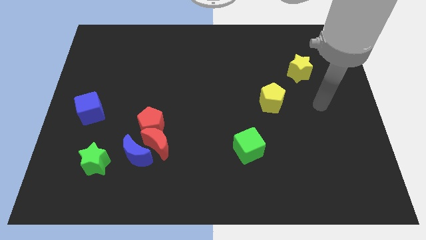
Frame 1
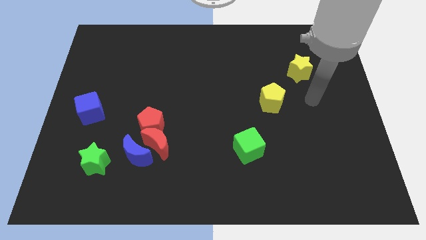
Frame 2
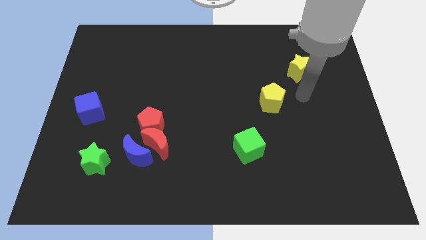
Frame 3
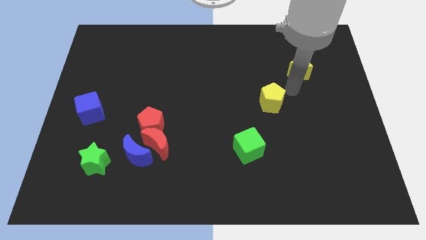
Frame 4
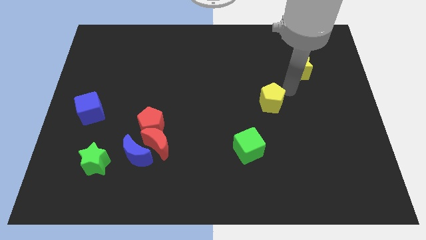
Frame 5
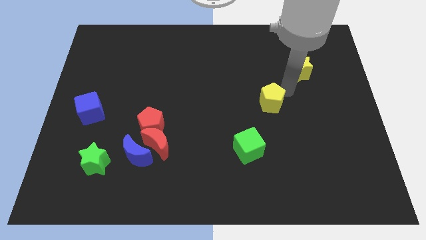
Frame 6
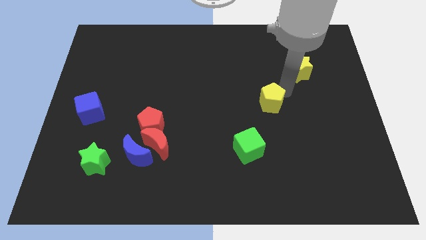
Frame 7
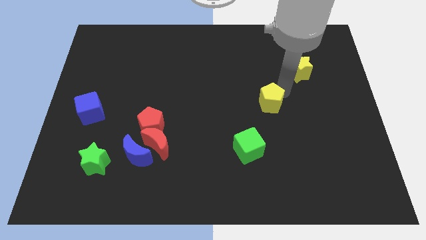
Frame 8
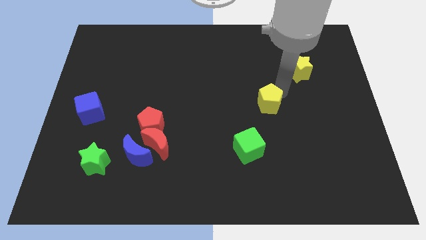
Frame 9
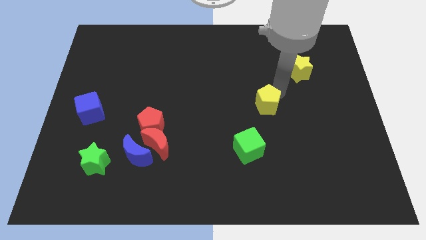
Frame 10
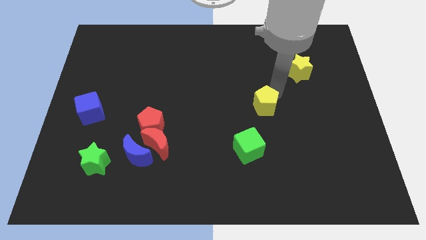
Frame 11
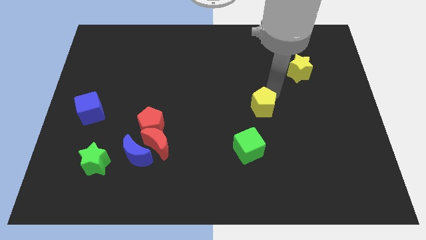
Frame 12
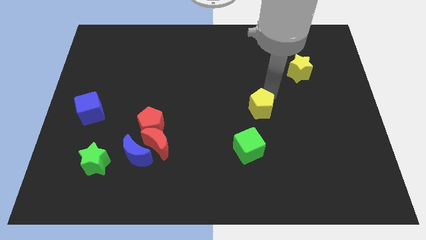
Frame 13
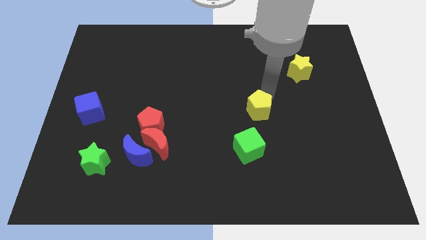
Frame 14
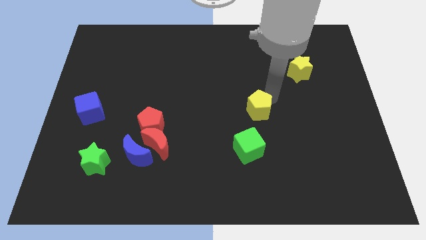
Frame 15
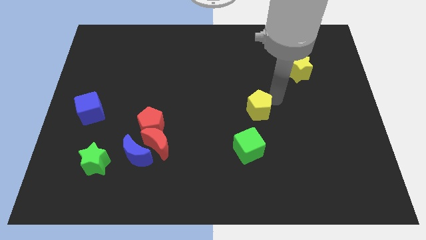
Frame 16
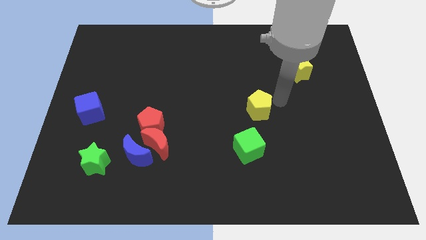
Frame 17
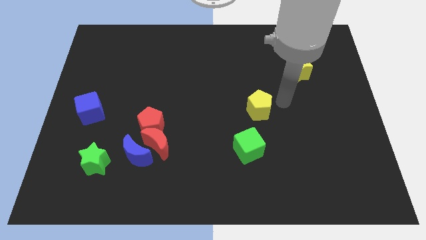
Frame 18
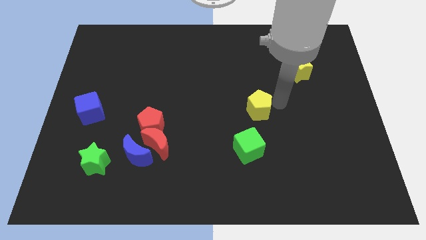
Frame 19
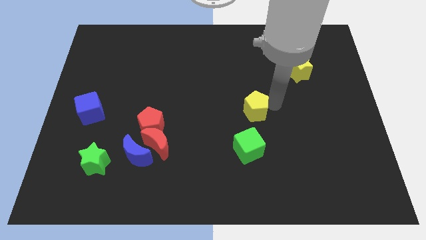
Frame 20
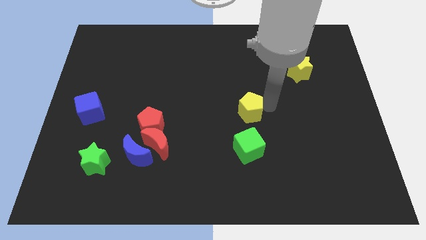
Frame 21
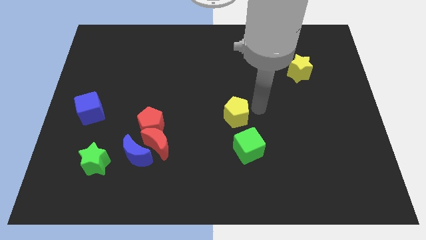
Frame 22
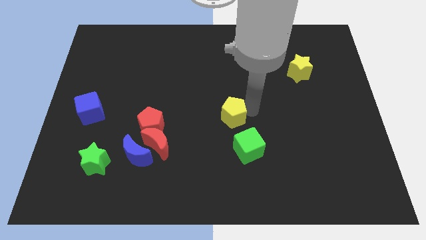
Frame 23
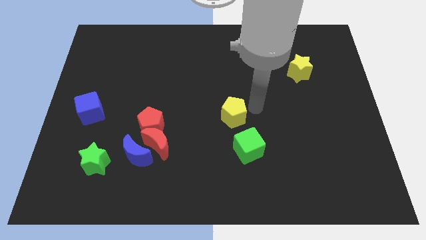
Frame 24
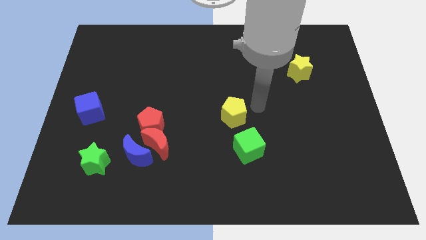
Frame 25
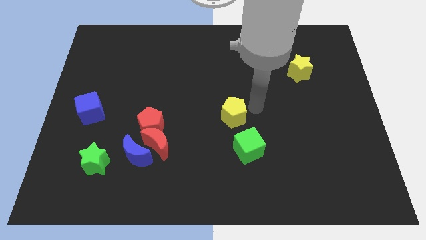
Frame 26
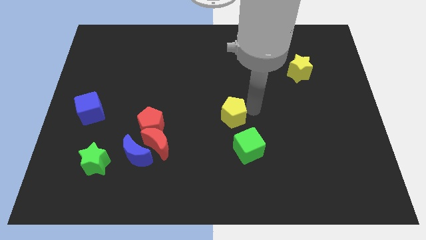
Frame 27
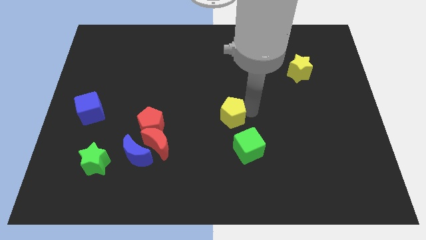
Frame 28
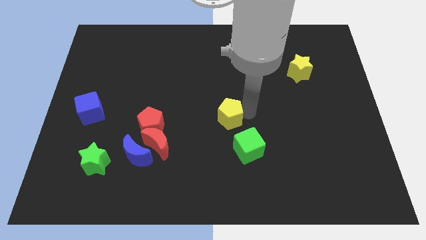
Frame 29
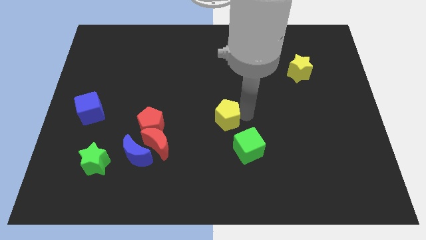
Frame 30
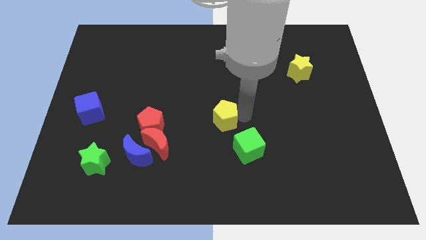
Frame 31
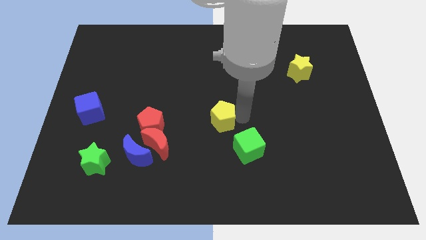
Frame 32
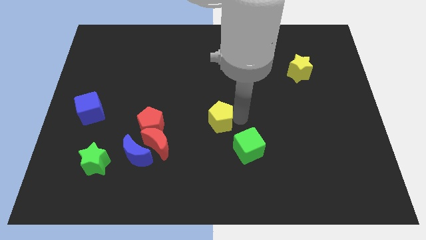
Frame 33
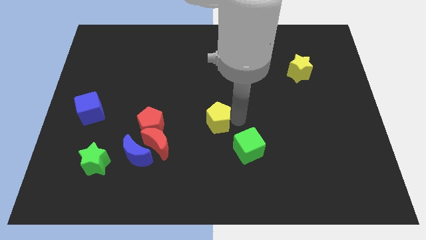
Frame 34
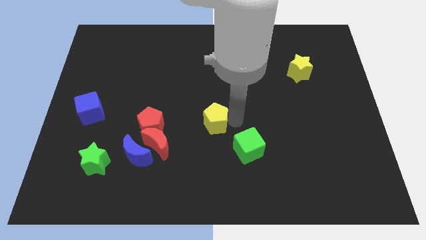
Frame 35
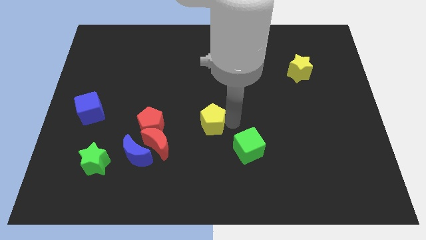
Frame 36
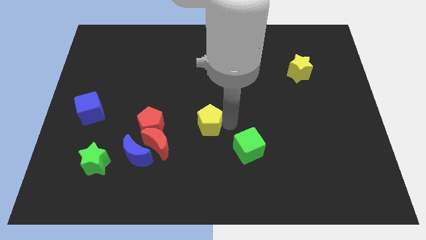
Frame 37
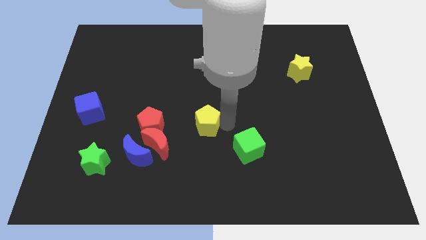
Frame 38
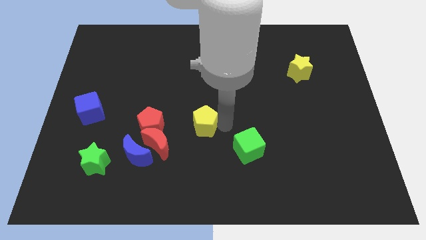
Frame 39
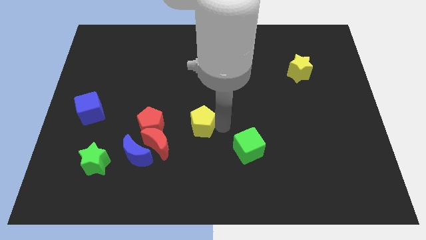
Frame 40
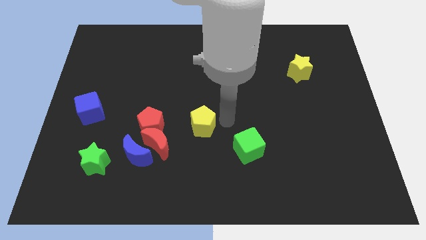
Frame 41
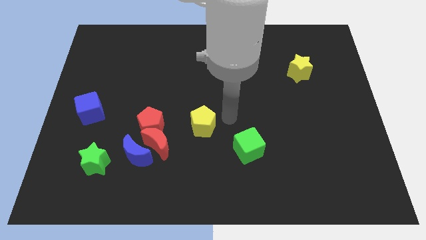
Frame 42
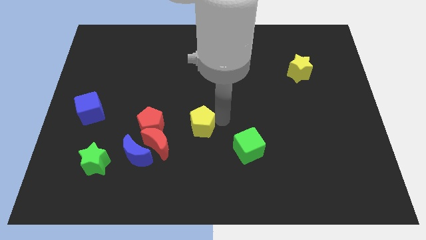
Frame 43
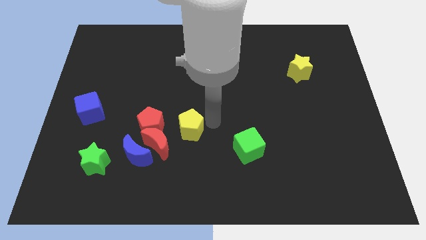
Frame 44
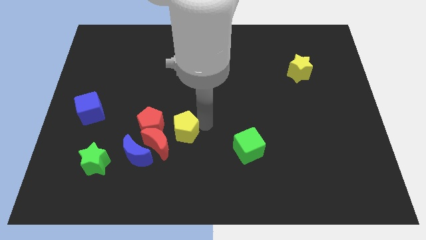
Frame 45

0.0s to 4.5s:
slide the yellow pentagon to the top right of the blue moon

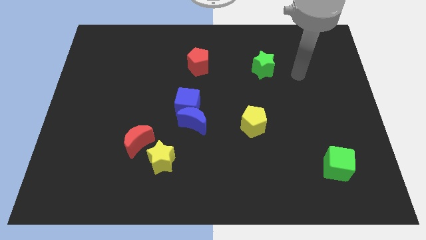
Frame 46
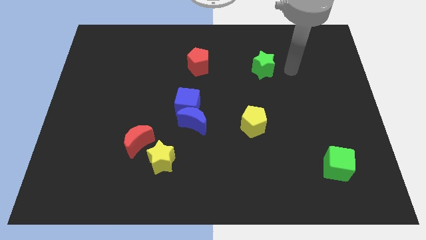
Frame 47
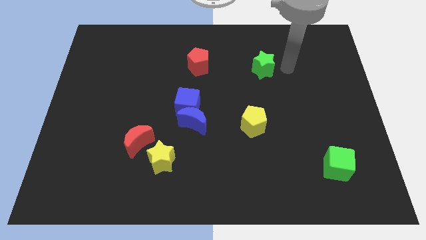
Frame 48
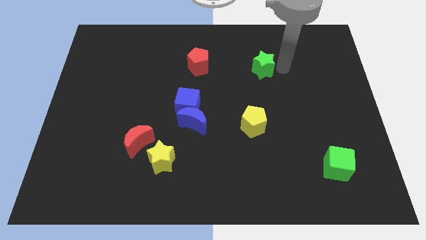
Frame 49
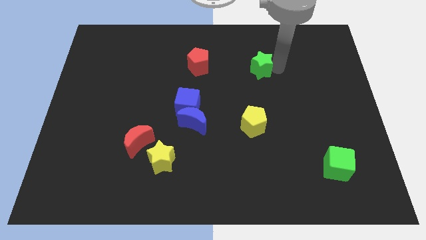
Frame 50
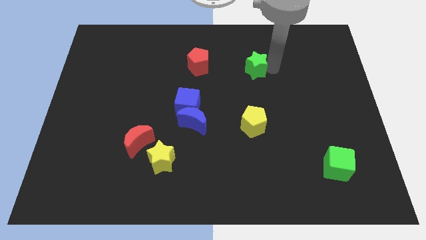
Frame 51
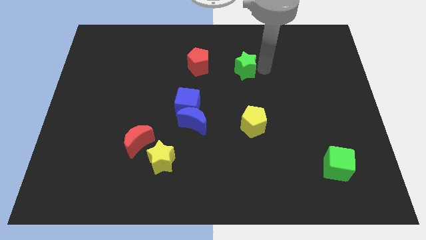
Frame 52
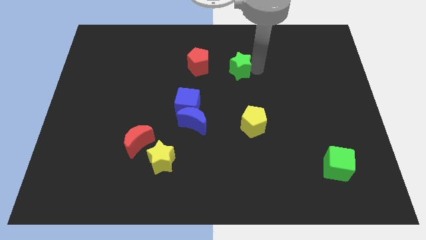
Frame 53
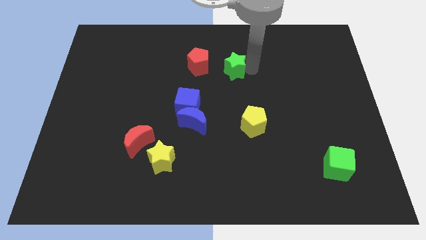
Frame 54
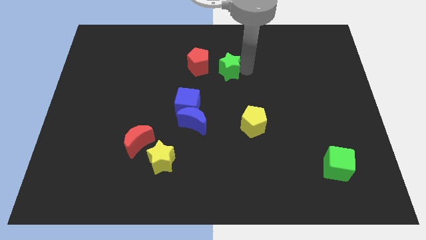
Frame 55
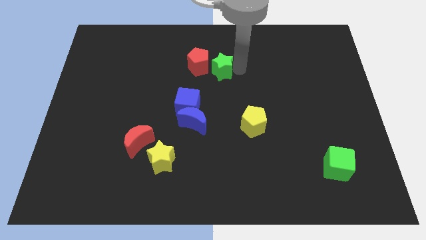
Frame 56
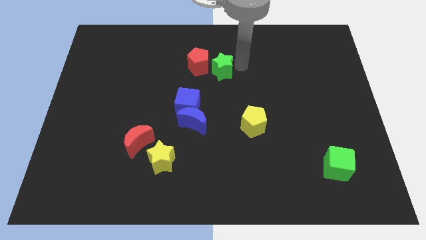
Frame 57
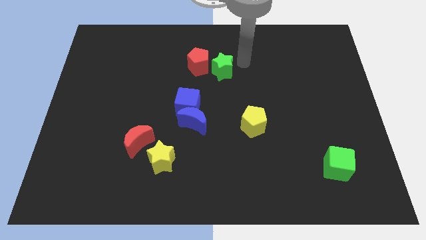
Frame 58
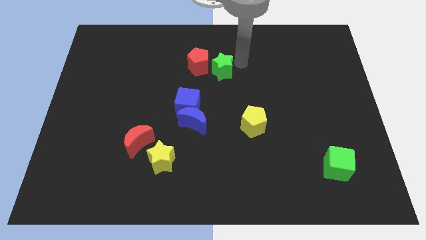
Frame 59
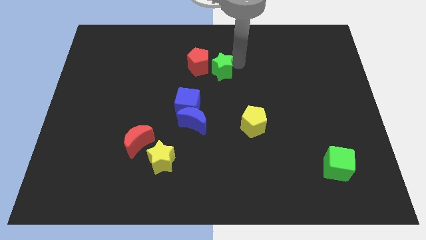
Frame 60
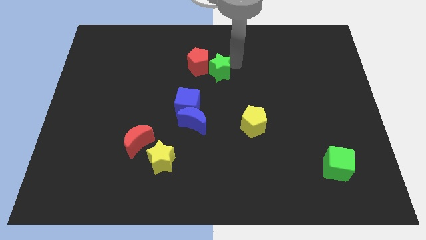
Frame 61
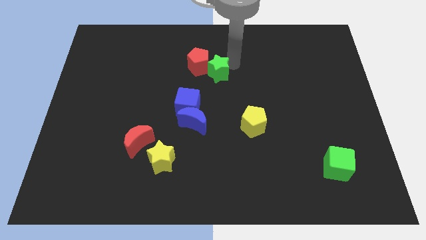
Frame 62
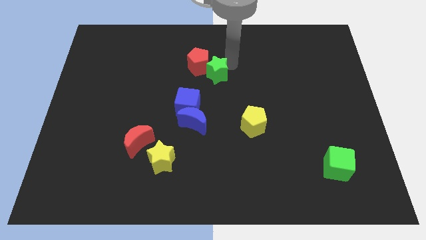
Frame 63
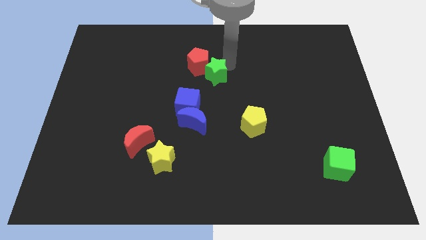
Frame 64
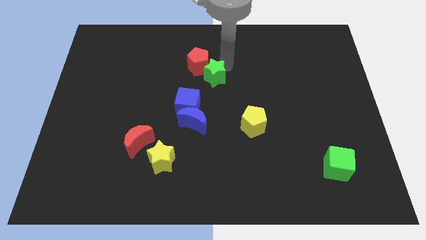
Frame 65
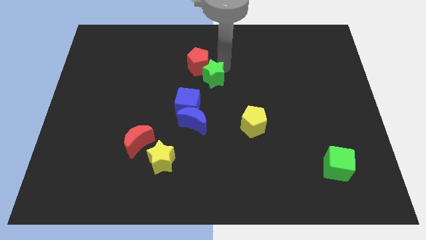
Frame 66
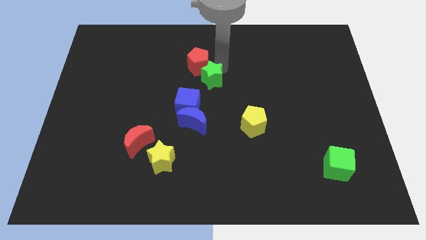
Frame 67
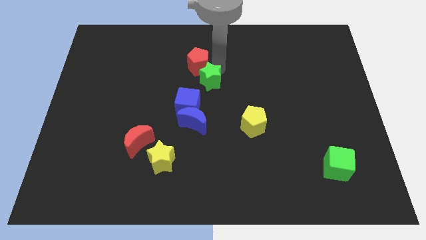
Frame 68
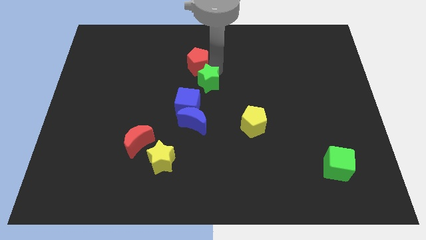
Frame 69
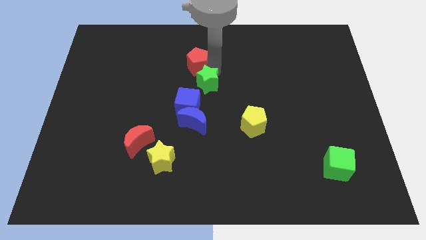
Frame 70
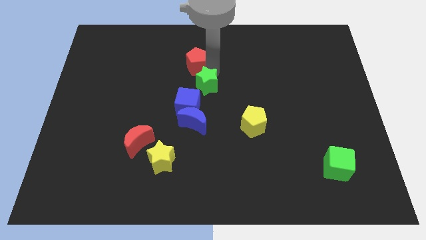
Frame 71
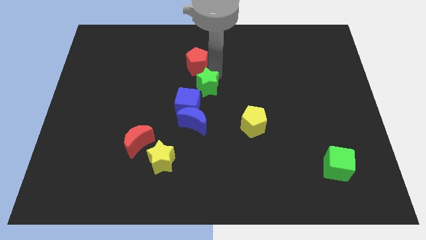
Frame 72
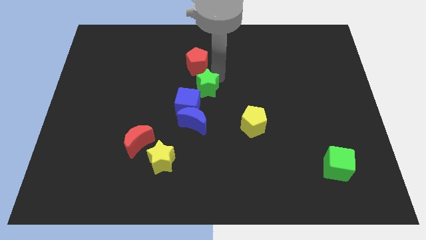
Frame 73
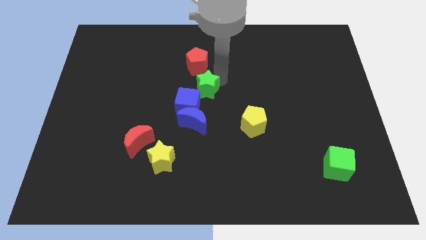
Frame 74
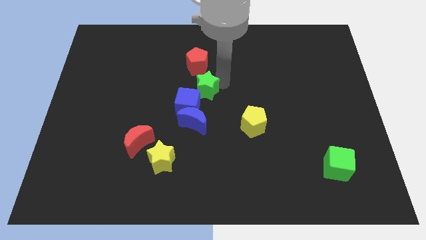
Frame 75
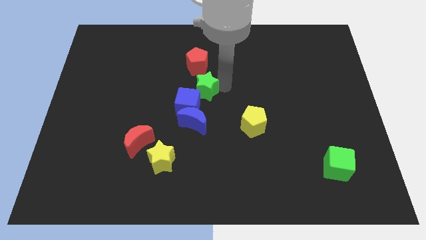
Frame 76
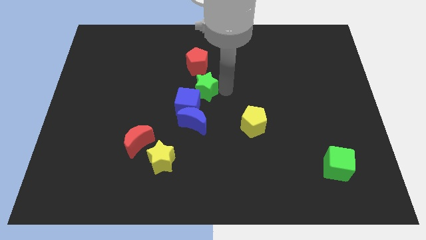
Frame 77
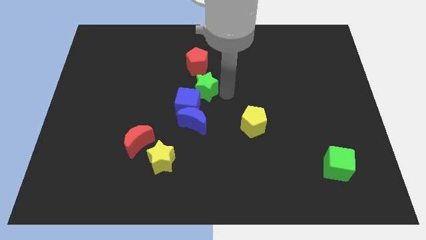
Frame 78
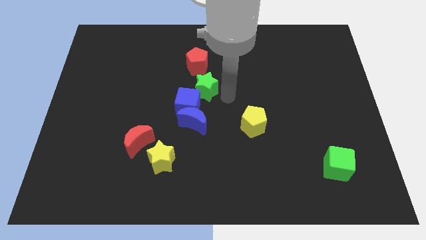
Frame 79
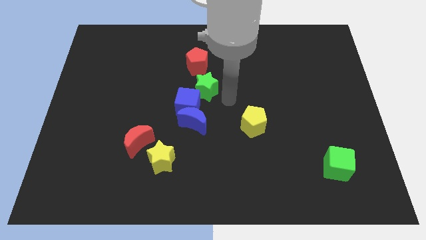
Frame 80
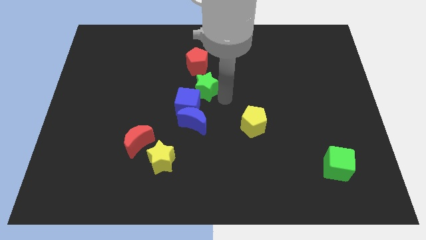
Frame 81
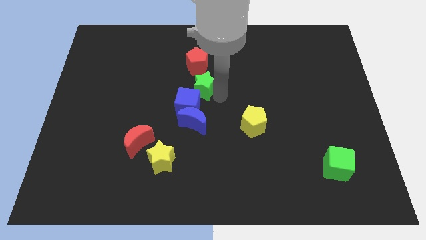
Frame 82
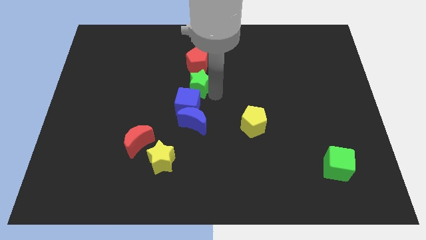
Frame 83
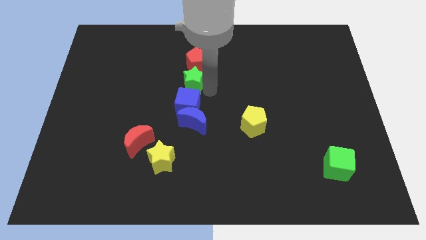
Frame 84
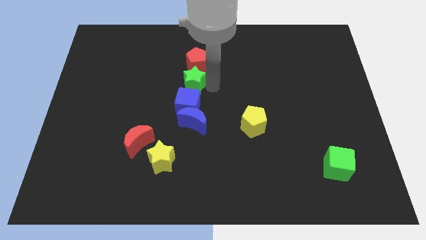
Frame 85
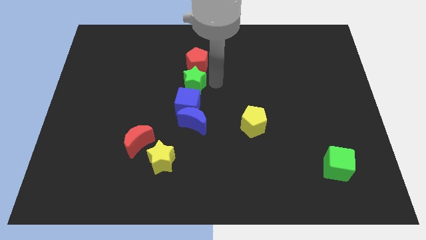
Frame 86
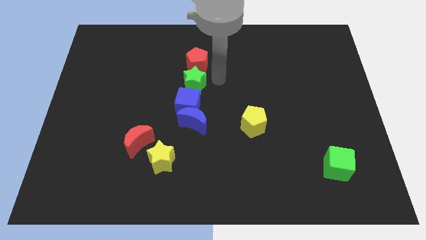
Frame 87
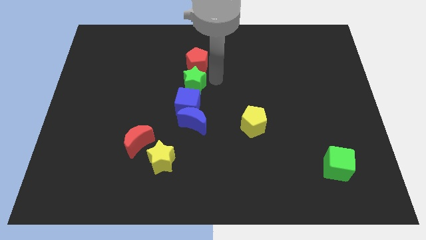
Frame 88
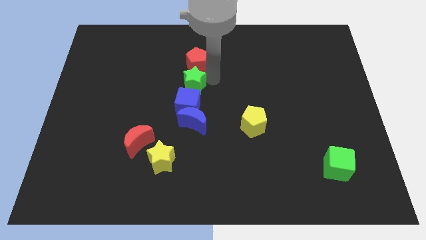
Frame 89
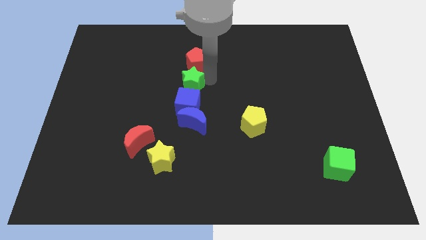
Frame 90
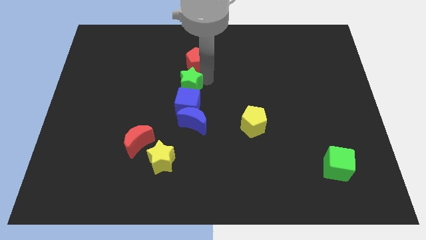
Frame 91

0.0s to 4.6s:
put the green star diagonally up and to the left of the blue cube
